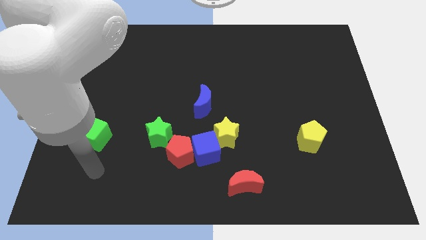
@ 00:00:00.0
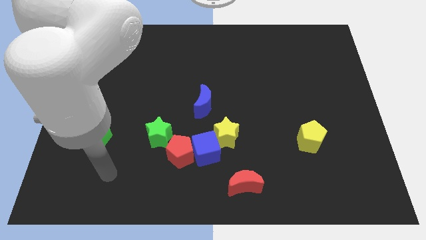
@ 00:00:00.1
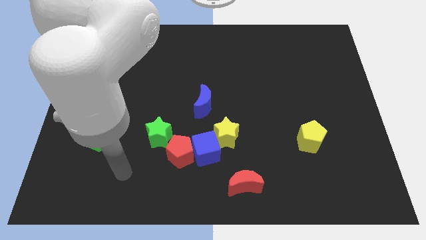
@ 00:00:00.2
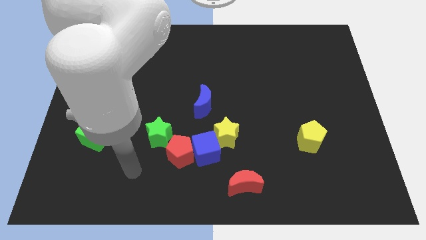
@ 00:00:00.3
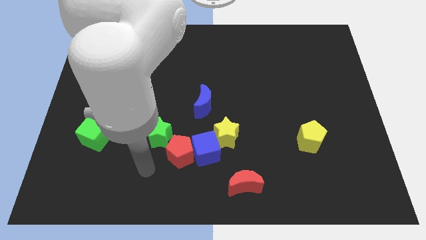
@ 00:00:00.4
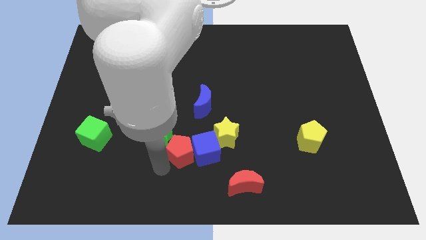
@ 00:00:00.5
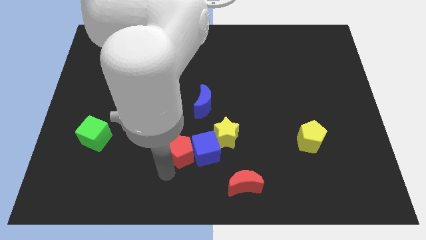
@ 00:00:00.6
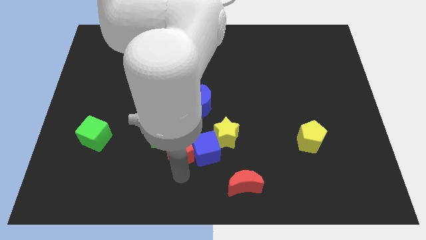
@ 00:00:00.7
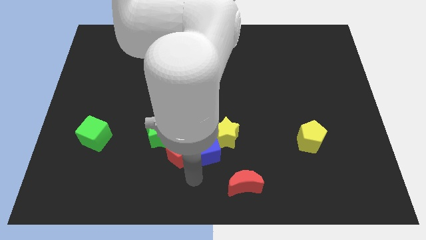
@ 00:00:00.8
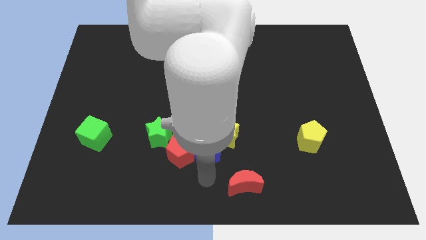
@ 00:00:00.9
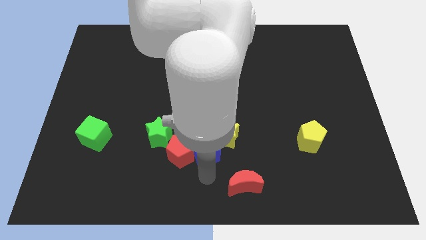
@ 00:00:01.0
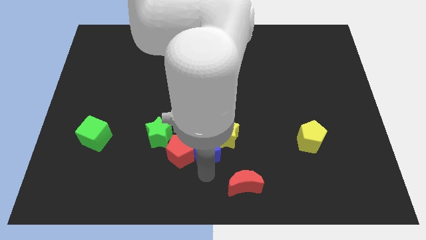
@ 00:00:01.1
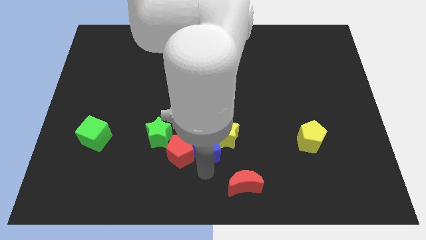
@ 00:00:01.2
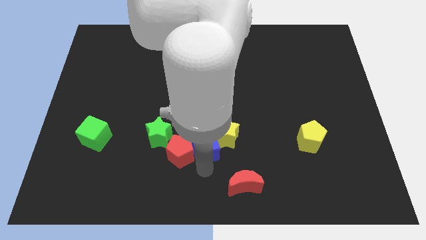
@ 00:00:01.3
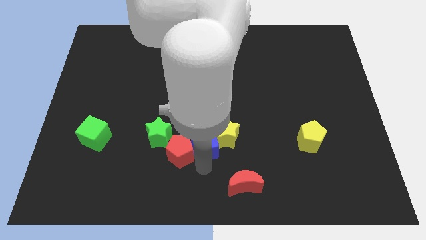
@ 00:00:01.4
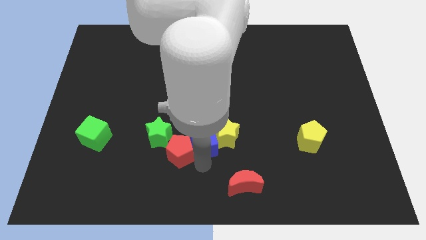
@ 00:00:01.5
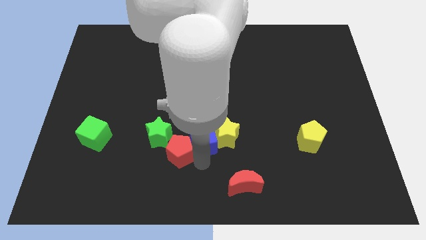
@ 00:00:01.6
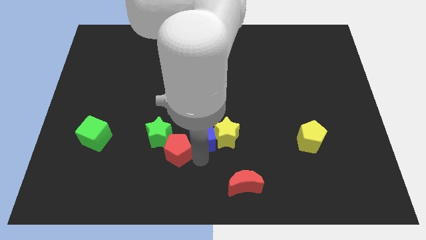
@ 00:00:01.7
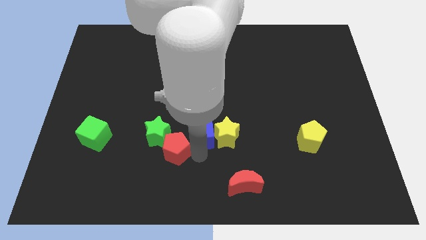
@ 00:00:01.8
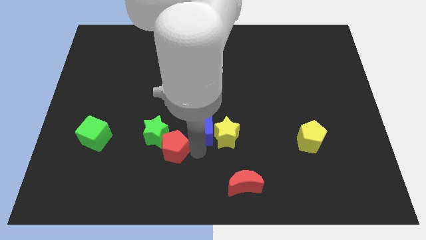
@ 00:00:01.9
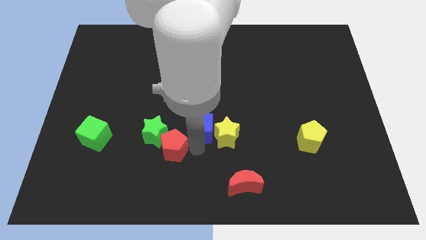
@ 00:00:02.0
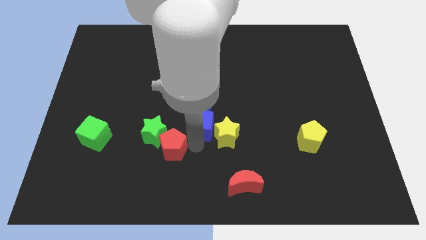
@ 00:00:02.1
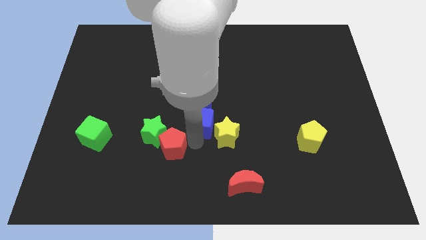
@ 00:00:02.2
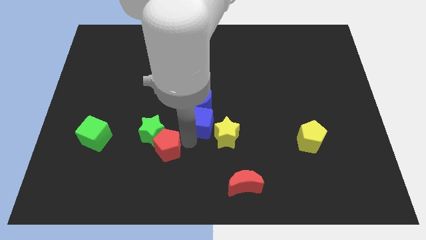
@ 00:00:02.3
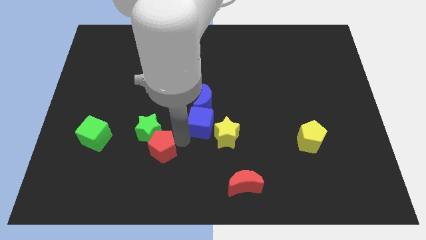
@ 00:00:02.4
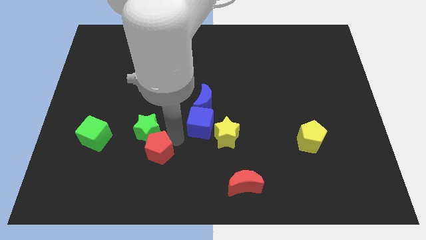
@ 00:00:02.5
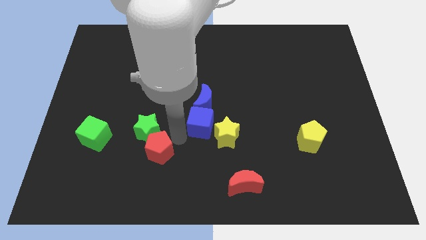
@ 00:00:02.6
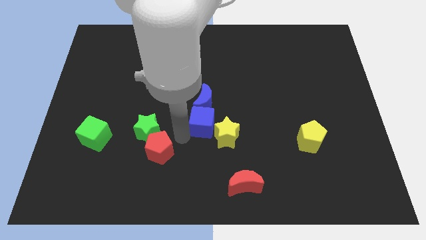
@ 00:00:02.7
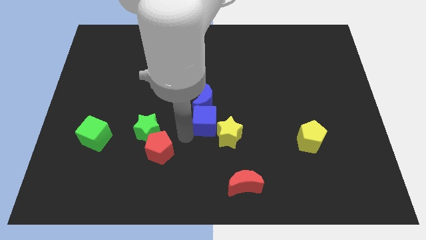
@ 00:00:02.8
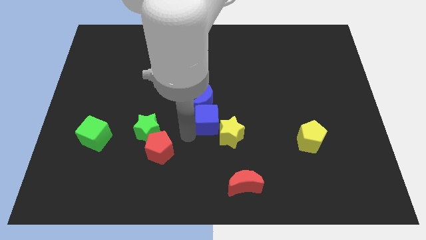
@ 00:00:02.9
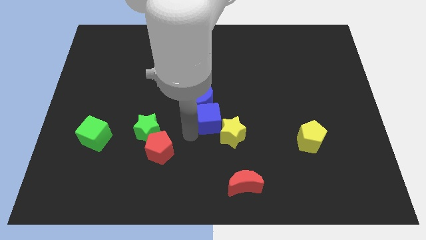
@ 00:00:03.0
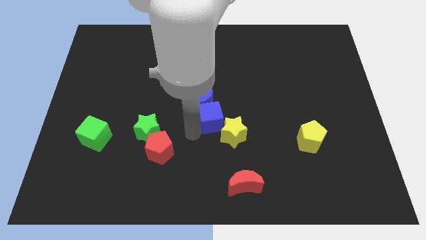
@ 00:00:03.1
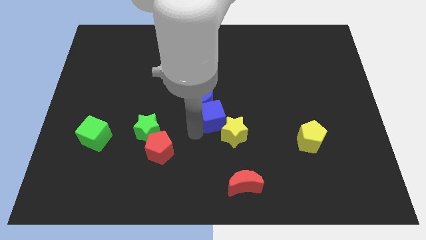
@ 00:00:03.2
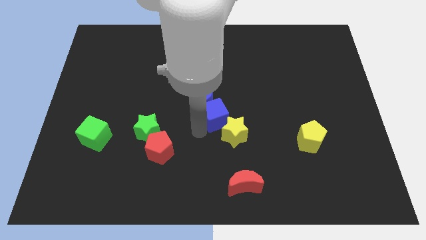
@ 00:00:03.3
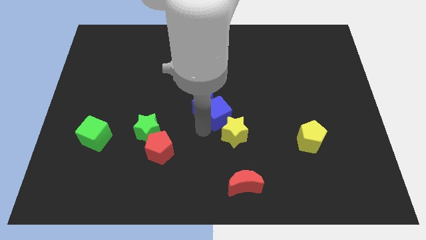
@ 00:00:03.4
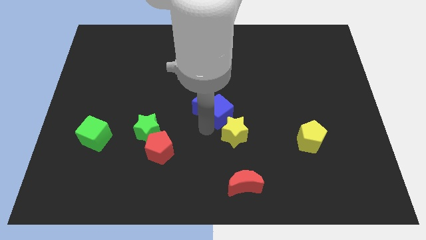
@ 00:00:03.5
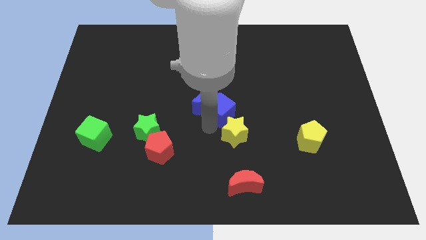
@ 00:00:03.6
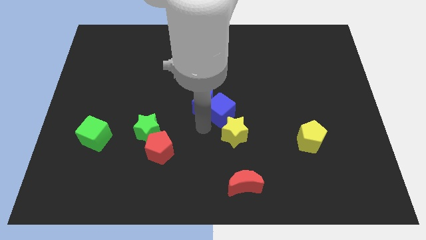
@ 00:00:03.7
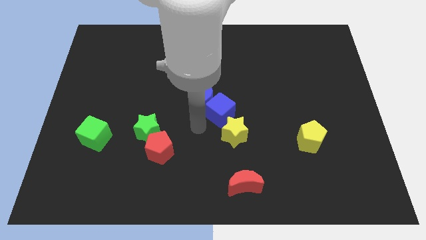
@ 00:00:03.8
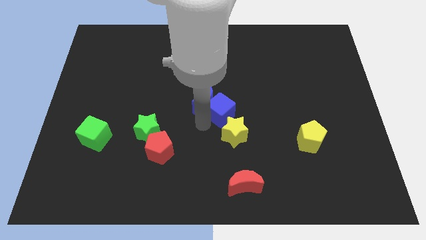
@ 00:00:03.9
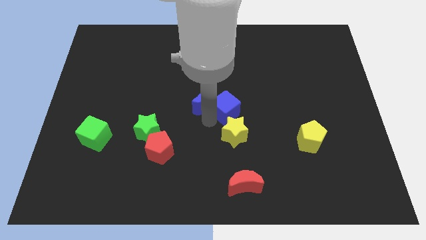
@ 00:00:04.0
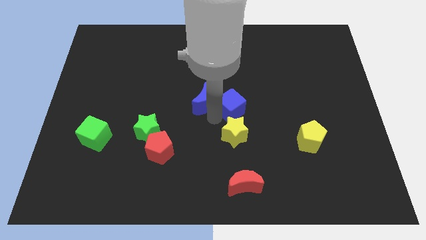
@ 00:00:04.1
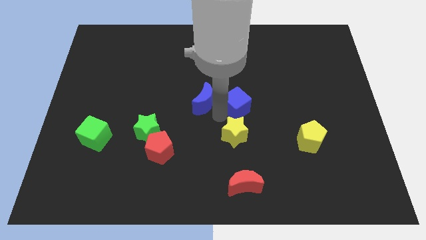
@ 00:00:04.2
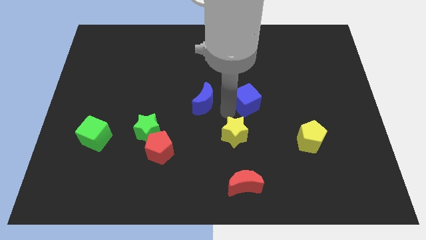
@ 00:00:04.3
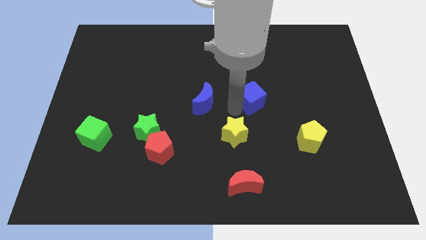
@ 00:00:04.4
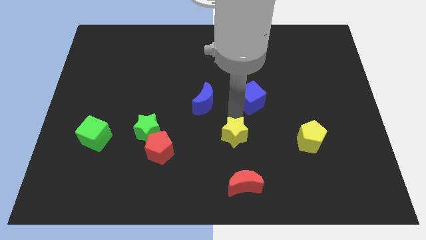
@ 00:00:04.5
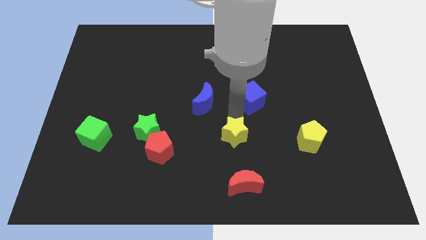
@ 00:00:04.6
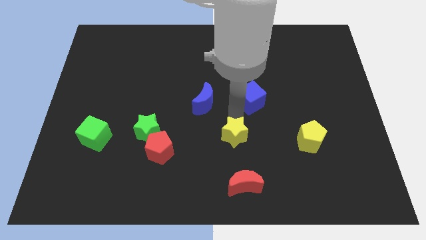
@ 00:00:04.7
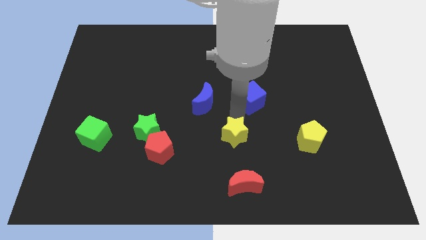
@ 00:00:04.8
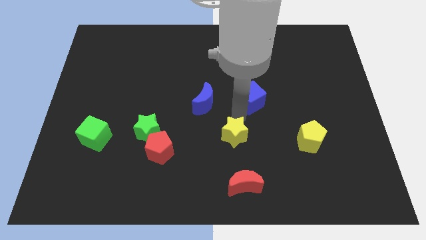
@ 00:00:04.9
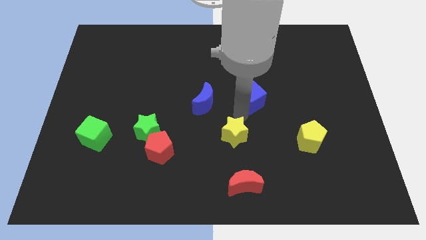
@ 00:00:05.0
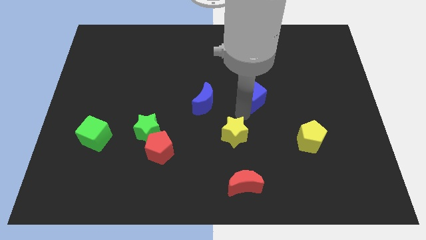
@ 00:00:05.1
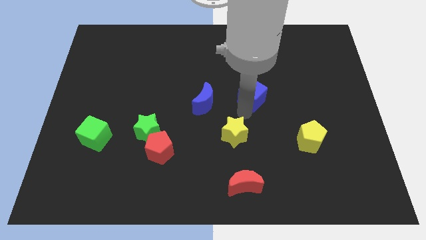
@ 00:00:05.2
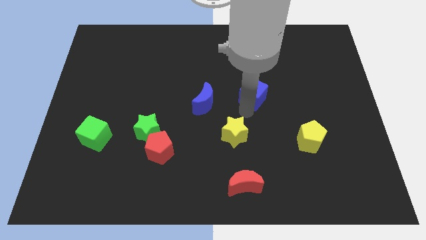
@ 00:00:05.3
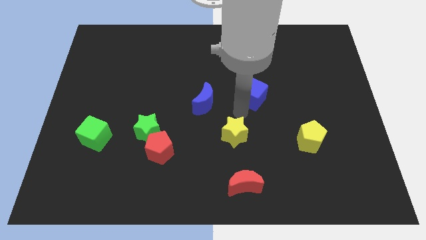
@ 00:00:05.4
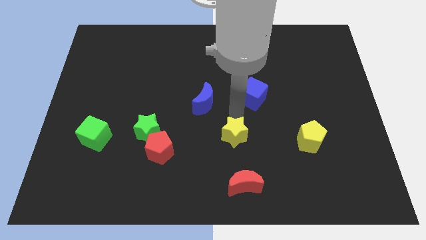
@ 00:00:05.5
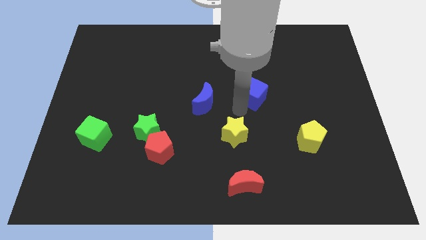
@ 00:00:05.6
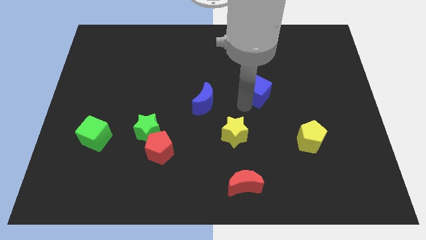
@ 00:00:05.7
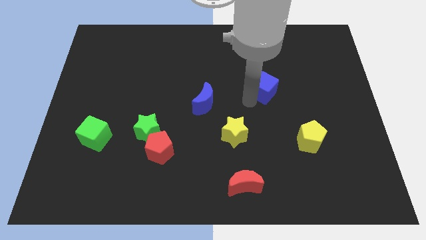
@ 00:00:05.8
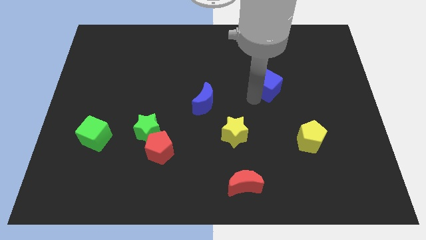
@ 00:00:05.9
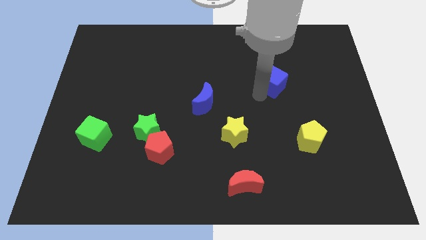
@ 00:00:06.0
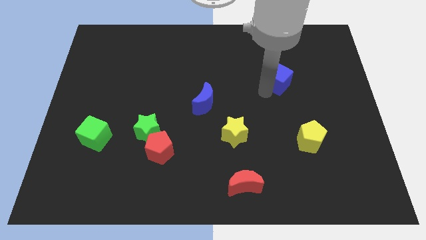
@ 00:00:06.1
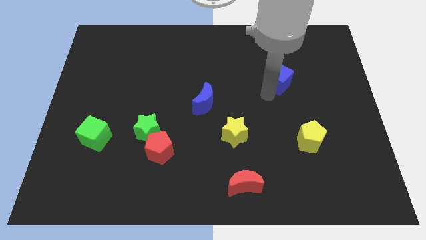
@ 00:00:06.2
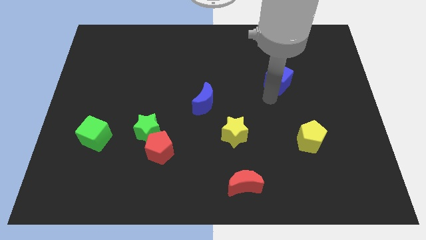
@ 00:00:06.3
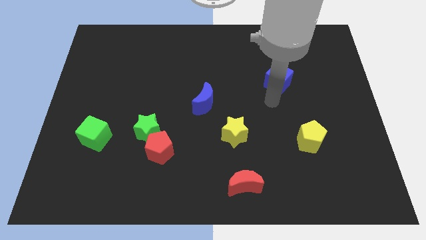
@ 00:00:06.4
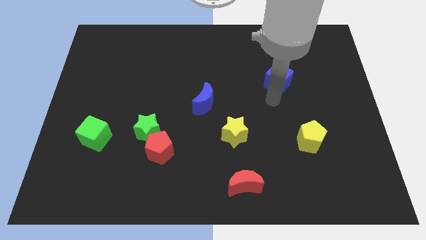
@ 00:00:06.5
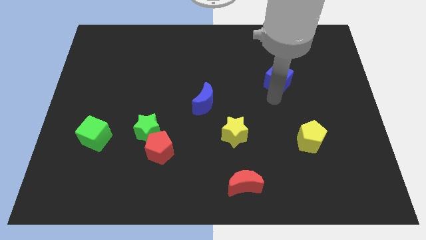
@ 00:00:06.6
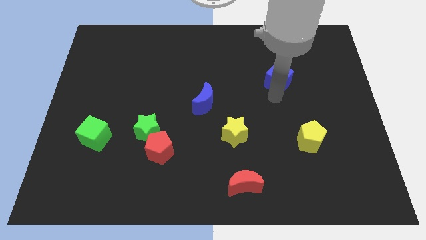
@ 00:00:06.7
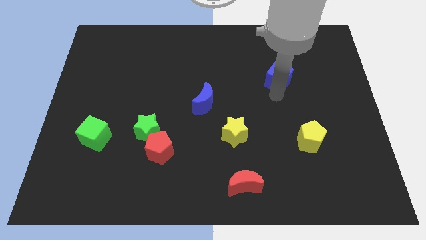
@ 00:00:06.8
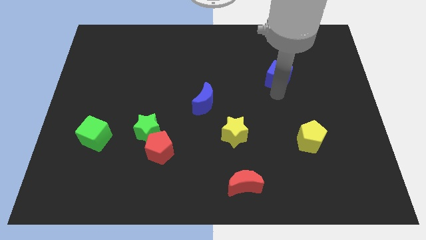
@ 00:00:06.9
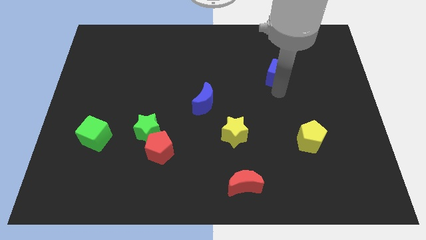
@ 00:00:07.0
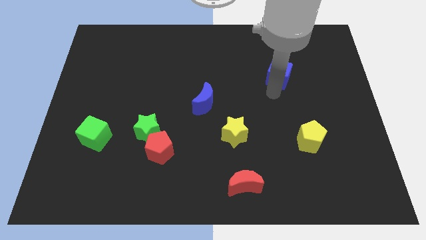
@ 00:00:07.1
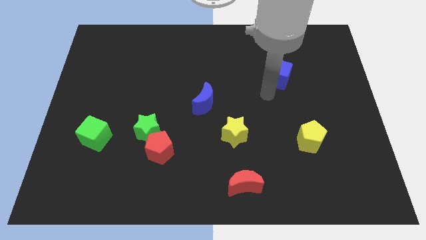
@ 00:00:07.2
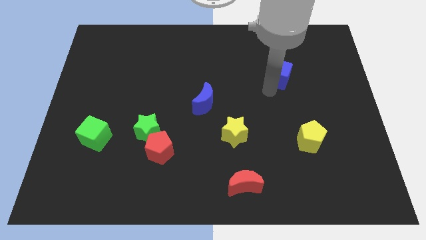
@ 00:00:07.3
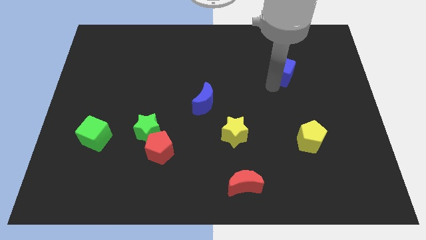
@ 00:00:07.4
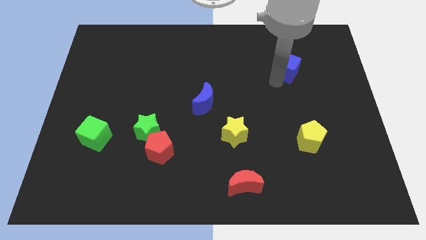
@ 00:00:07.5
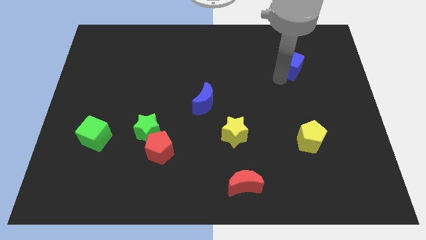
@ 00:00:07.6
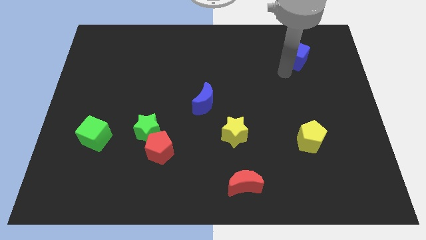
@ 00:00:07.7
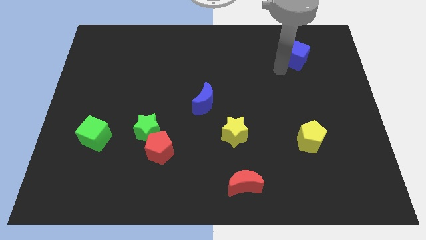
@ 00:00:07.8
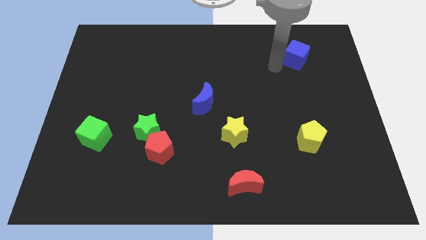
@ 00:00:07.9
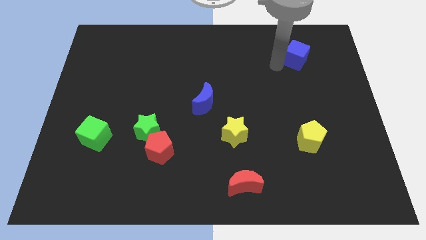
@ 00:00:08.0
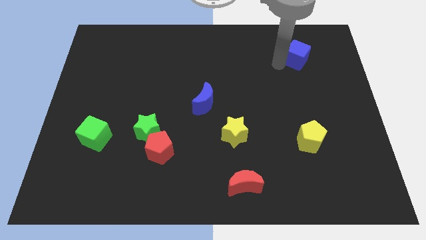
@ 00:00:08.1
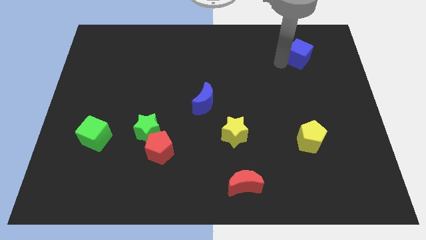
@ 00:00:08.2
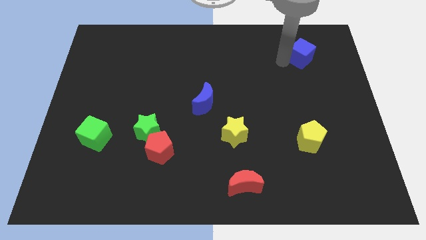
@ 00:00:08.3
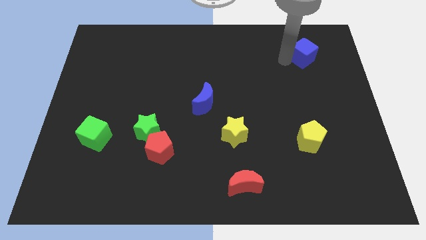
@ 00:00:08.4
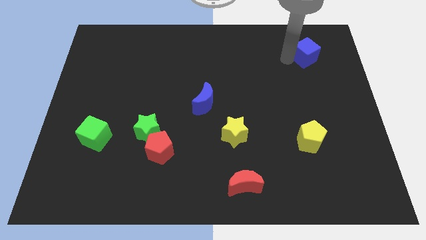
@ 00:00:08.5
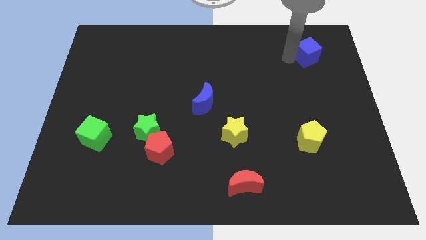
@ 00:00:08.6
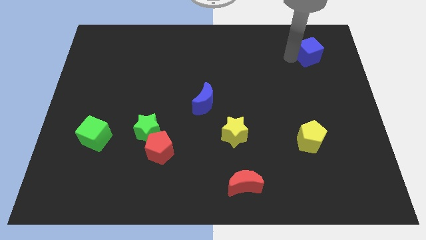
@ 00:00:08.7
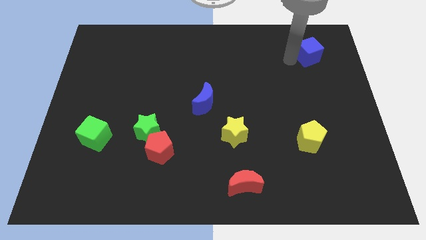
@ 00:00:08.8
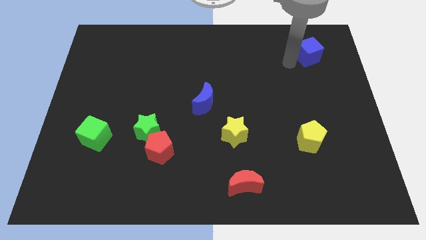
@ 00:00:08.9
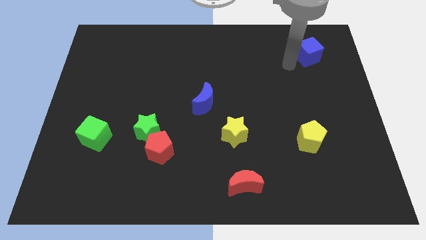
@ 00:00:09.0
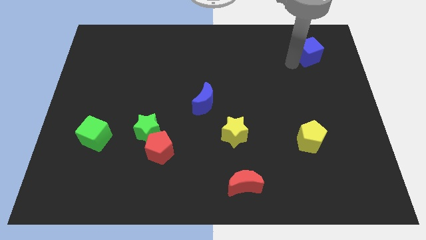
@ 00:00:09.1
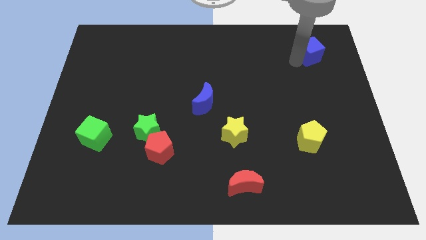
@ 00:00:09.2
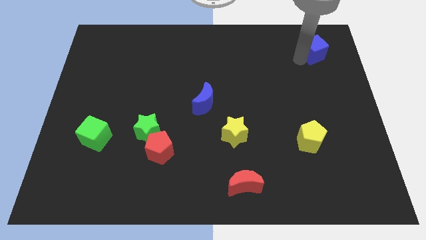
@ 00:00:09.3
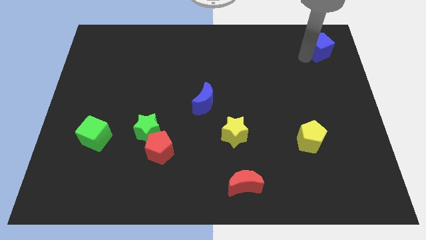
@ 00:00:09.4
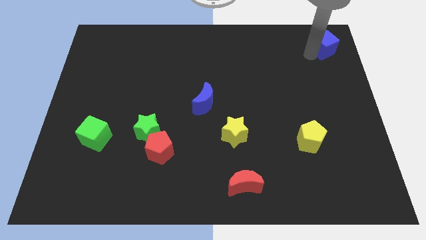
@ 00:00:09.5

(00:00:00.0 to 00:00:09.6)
slide the blue cube to the top right corner
